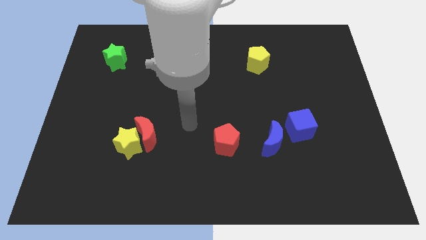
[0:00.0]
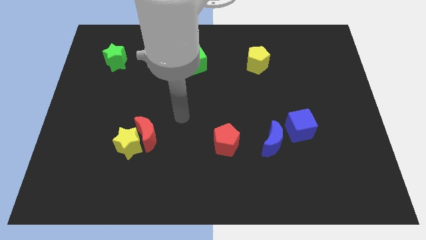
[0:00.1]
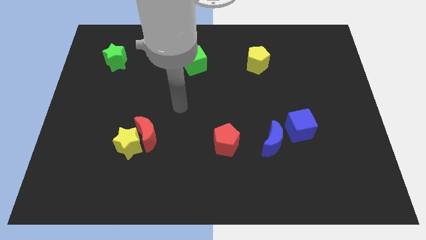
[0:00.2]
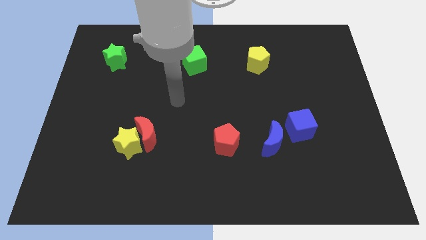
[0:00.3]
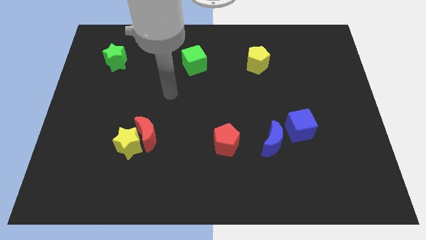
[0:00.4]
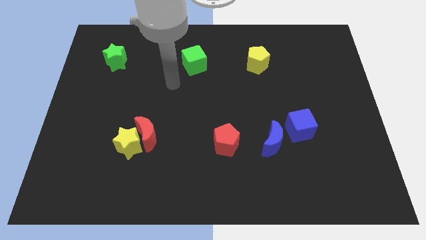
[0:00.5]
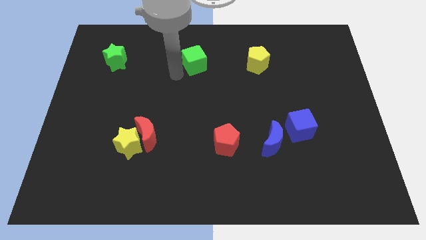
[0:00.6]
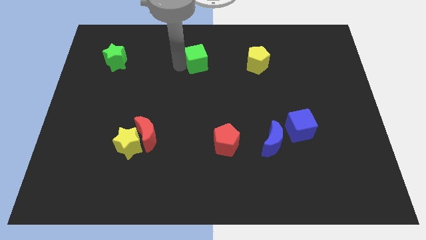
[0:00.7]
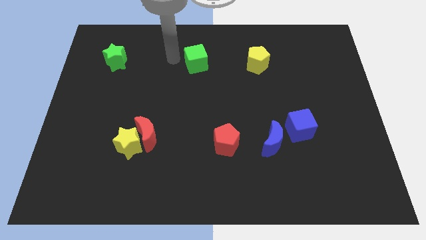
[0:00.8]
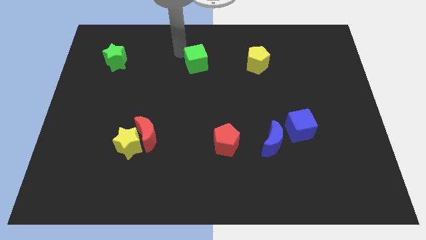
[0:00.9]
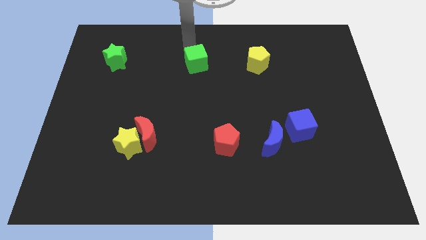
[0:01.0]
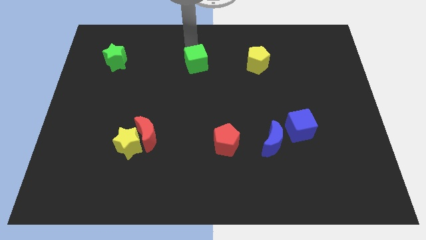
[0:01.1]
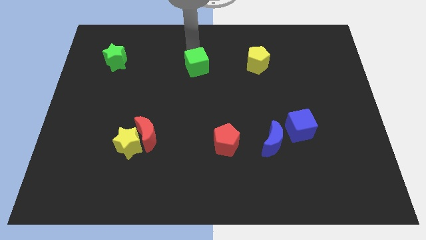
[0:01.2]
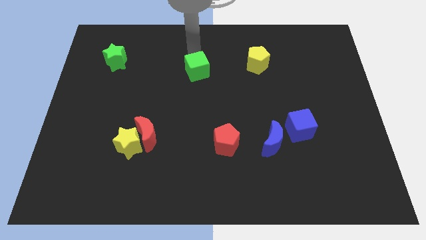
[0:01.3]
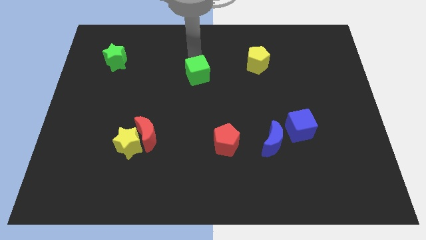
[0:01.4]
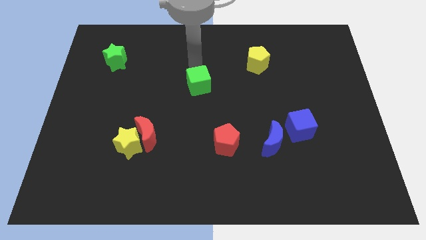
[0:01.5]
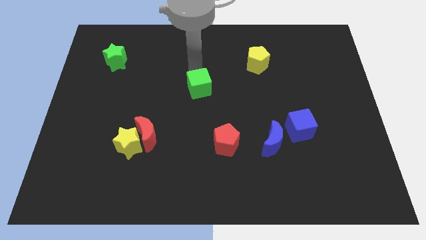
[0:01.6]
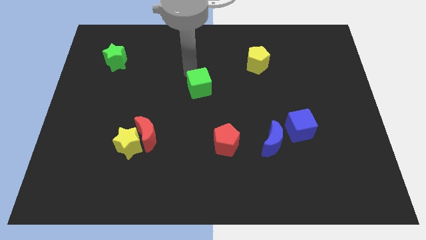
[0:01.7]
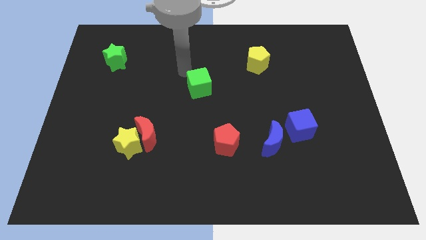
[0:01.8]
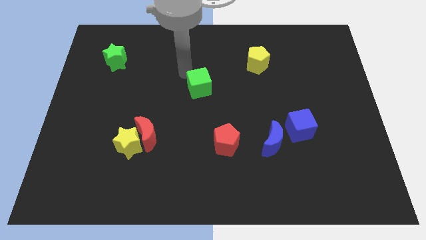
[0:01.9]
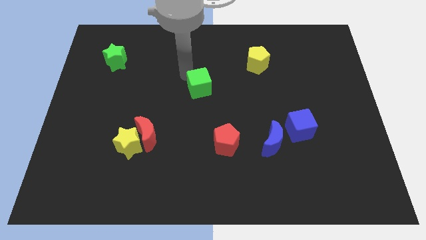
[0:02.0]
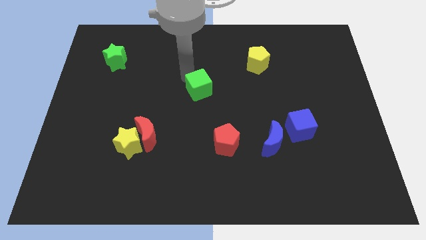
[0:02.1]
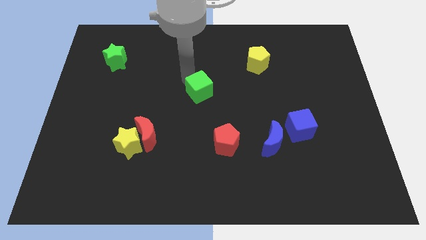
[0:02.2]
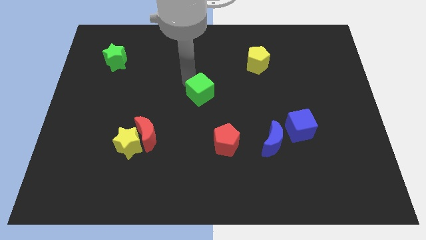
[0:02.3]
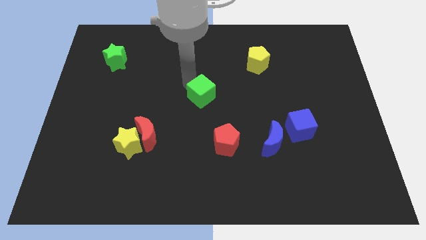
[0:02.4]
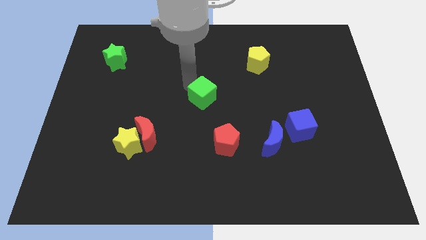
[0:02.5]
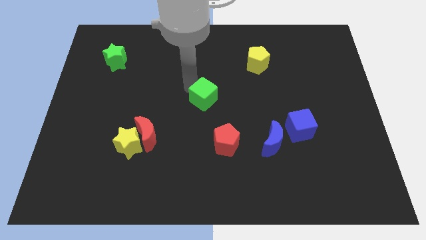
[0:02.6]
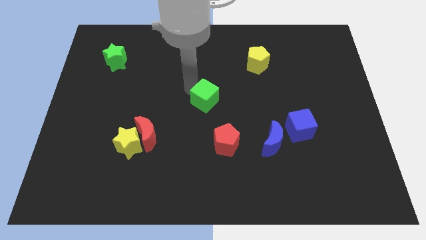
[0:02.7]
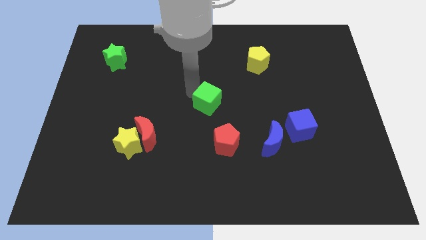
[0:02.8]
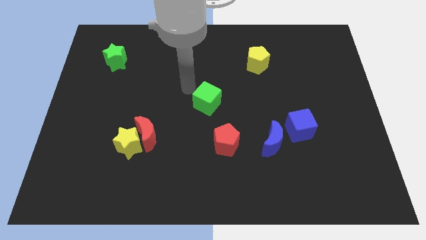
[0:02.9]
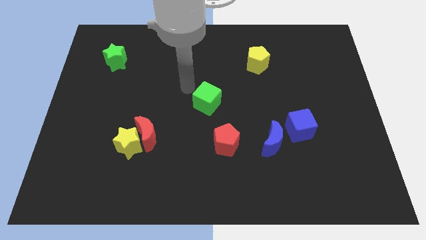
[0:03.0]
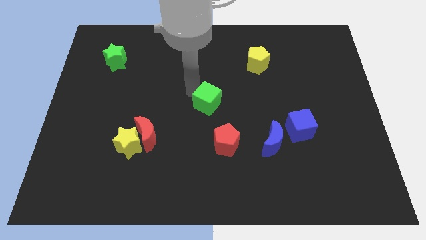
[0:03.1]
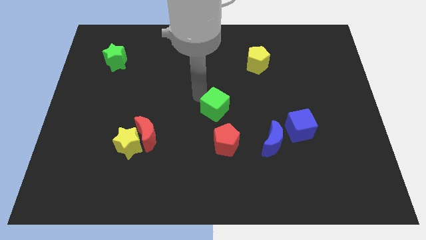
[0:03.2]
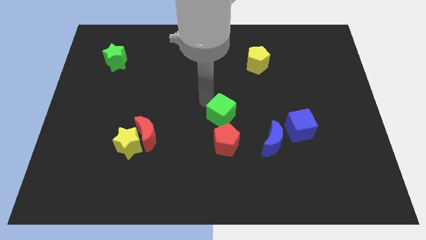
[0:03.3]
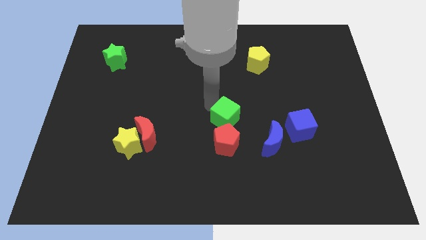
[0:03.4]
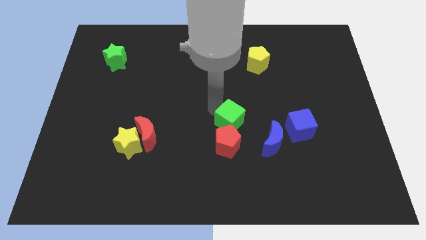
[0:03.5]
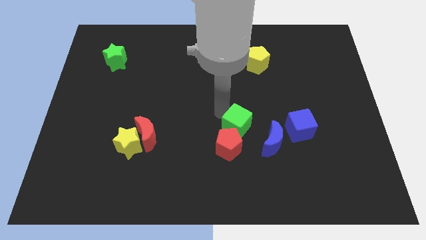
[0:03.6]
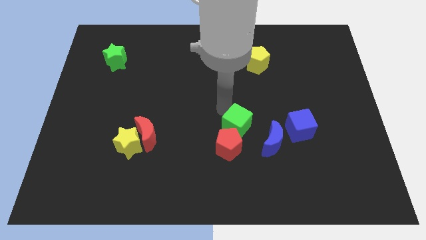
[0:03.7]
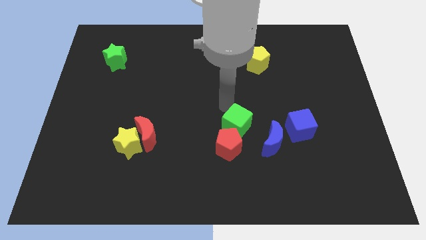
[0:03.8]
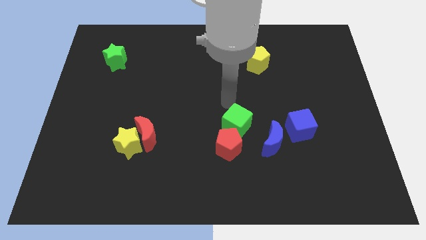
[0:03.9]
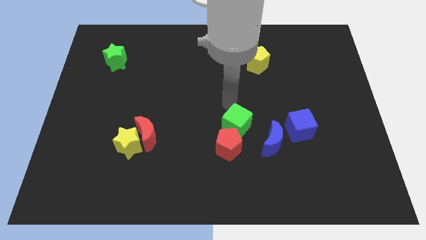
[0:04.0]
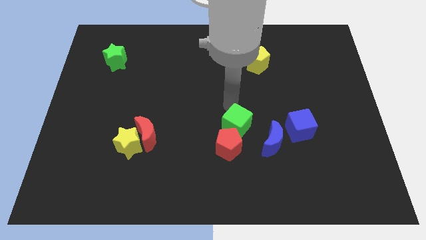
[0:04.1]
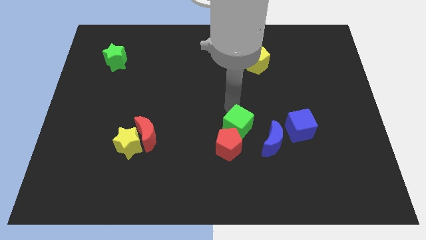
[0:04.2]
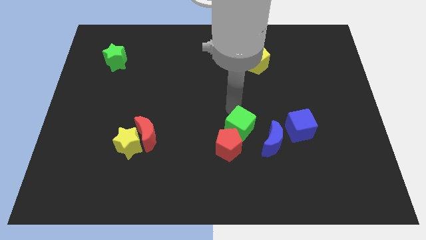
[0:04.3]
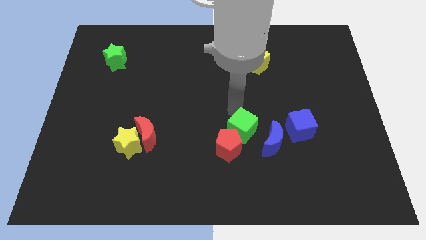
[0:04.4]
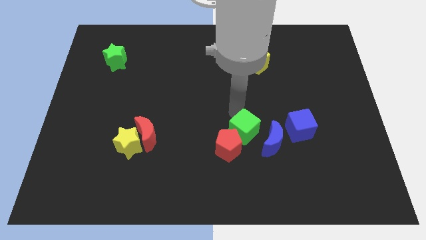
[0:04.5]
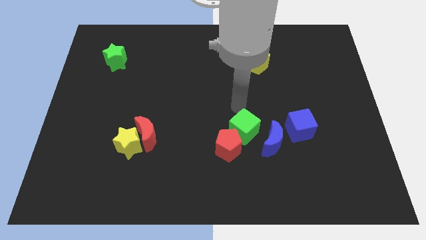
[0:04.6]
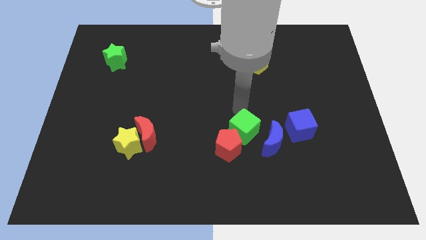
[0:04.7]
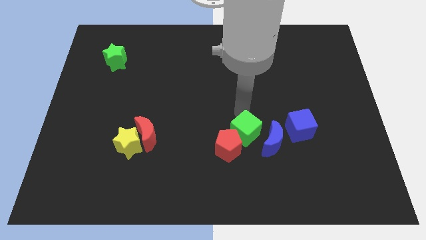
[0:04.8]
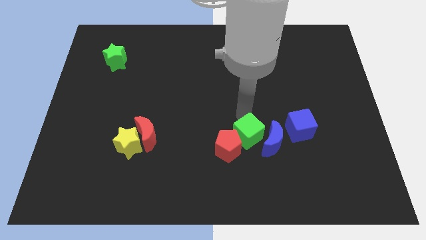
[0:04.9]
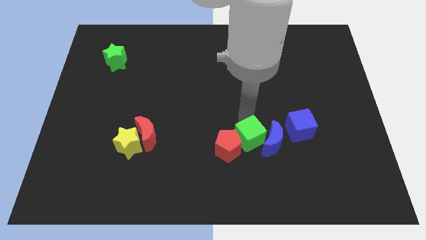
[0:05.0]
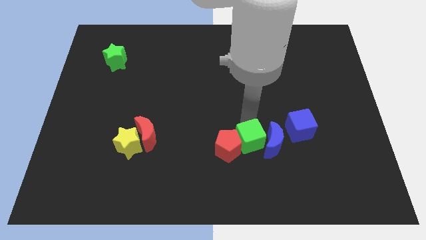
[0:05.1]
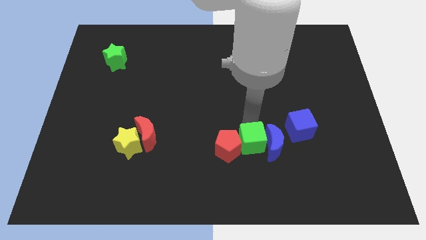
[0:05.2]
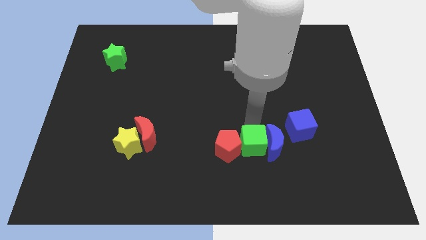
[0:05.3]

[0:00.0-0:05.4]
push the green cube to the bottom right of the red pentagon

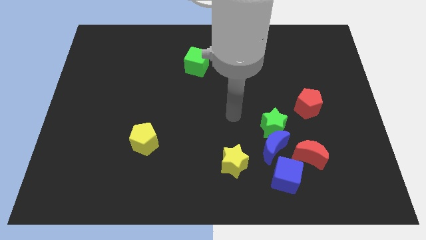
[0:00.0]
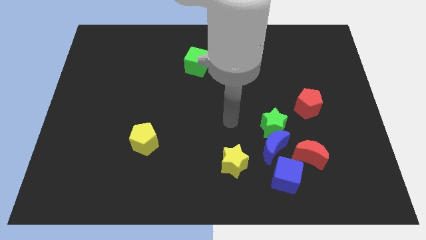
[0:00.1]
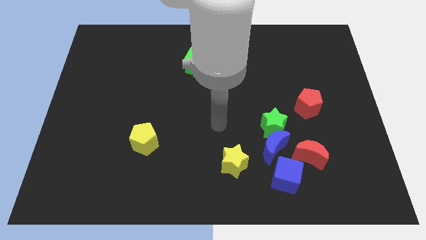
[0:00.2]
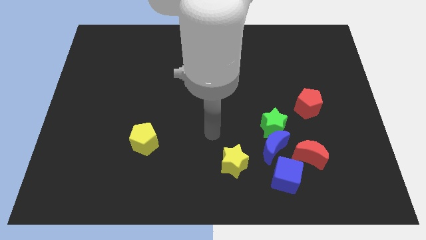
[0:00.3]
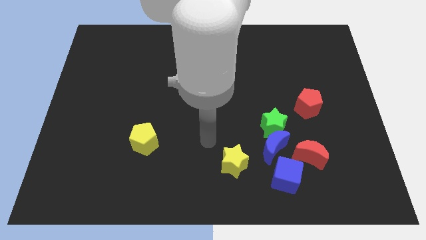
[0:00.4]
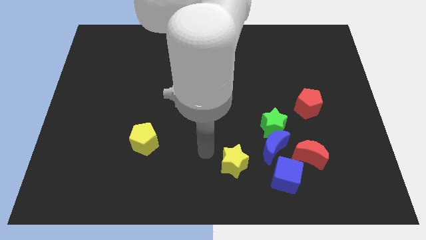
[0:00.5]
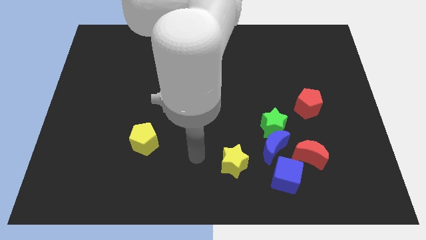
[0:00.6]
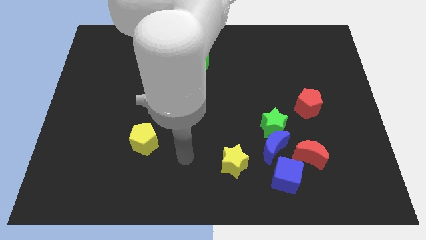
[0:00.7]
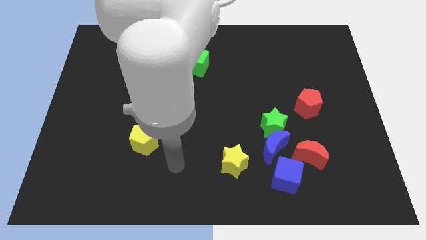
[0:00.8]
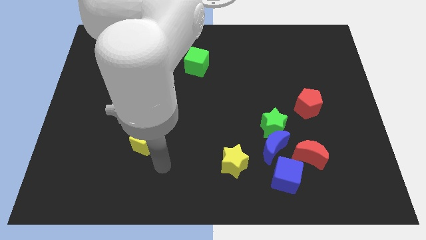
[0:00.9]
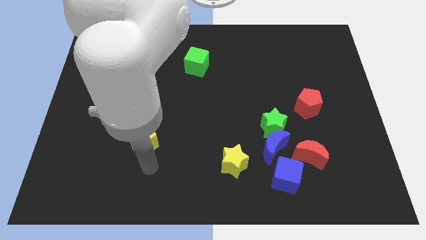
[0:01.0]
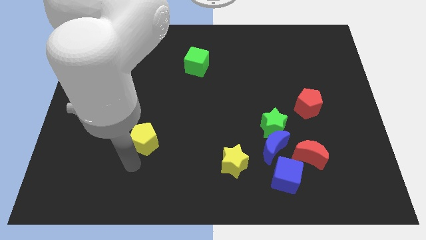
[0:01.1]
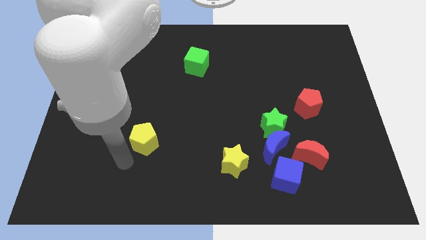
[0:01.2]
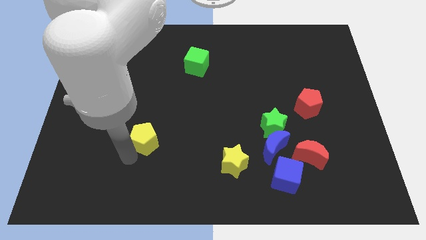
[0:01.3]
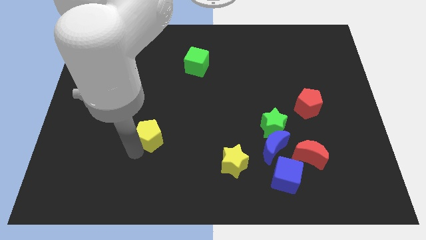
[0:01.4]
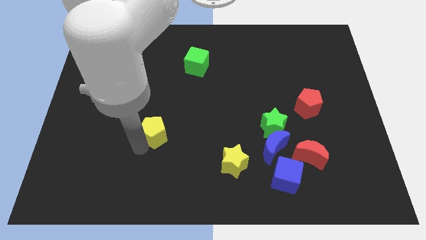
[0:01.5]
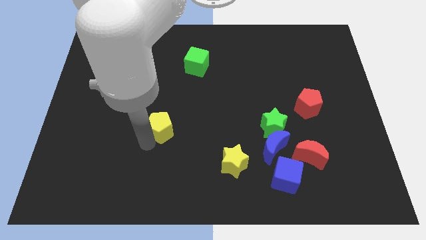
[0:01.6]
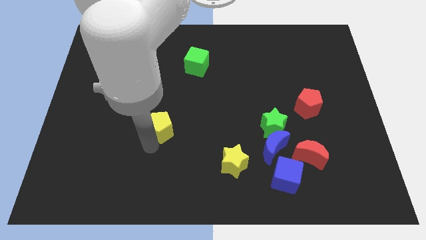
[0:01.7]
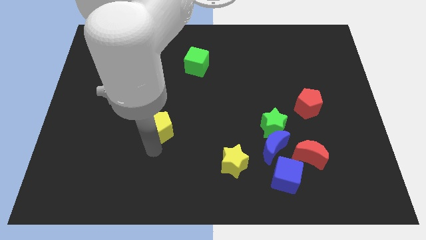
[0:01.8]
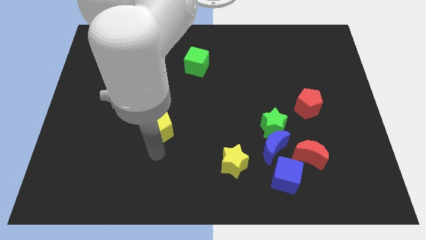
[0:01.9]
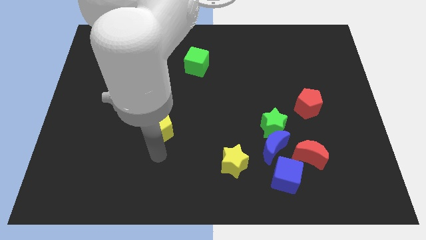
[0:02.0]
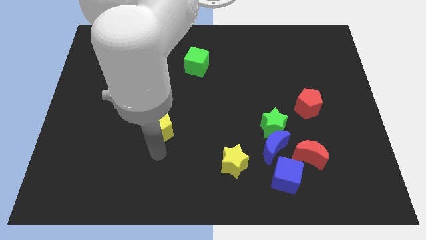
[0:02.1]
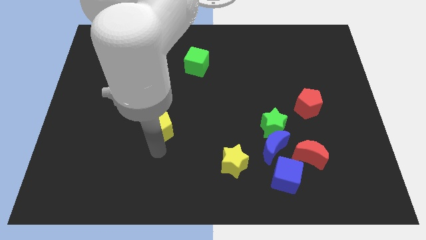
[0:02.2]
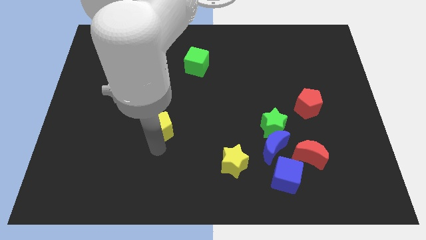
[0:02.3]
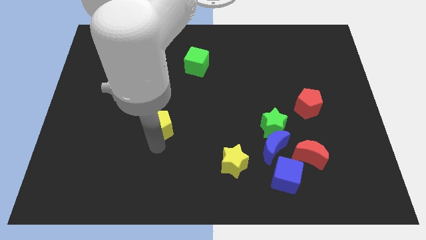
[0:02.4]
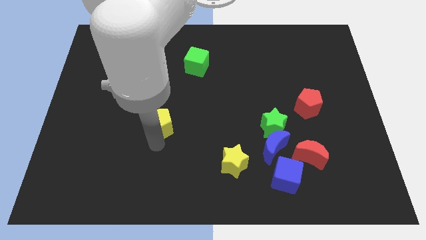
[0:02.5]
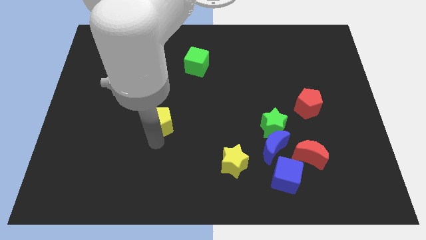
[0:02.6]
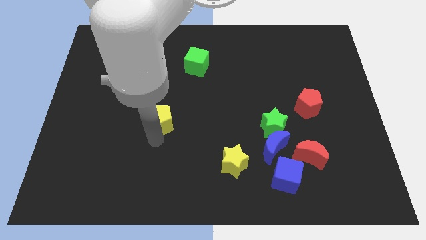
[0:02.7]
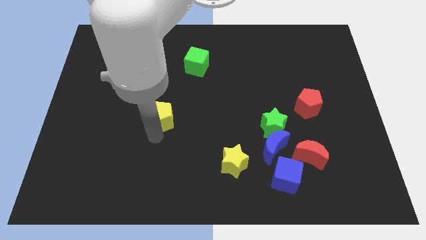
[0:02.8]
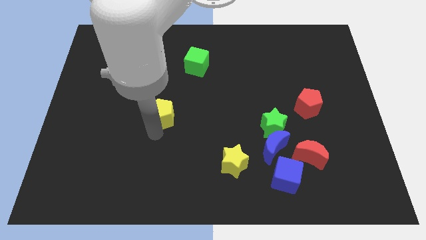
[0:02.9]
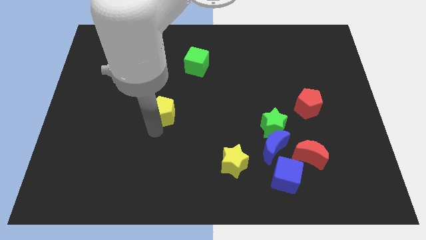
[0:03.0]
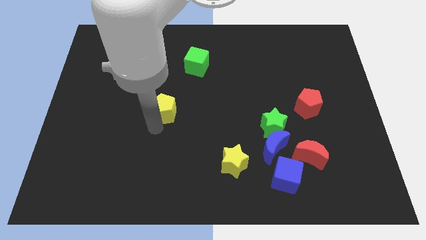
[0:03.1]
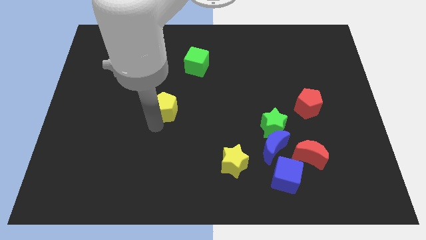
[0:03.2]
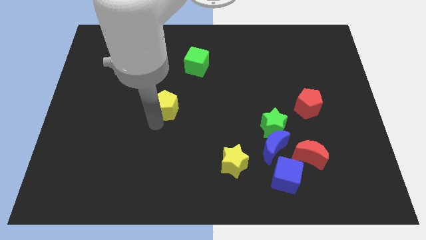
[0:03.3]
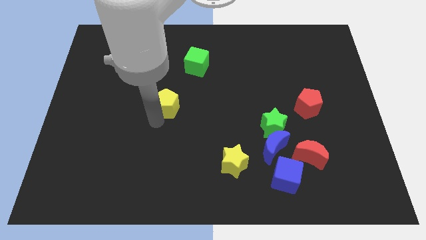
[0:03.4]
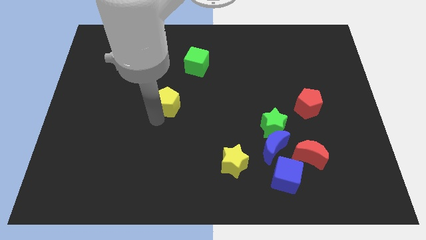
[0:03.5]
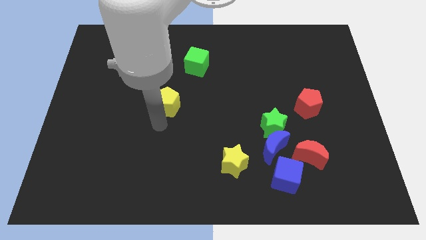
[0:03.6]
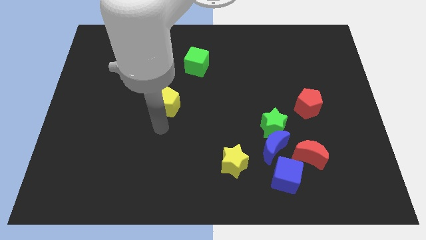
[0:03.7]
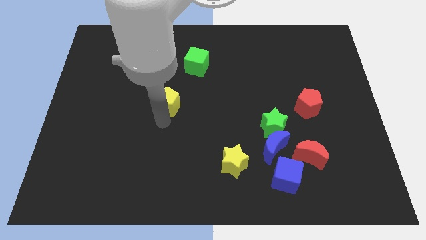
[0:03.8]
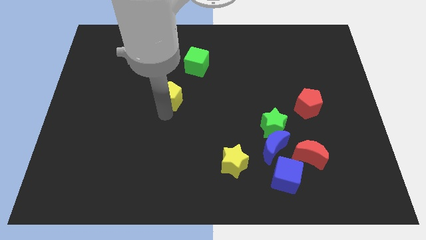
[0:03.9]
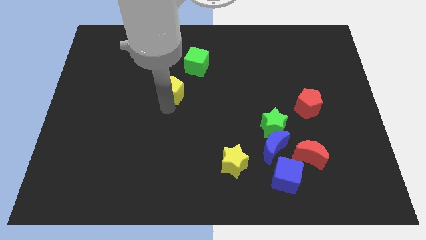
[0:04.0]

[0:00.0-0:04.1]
move the yellow pentagon to the bottom left side of the green cube
